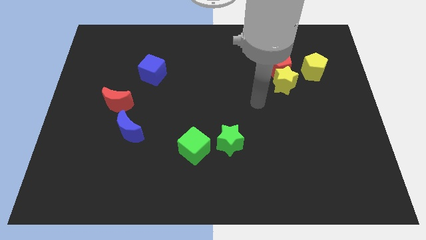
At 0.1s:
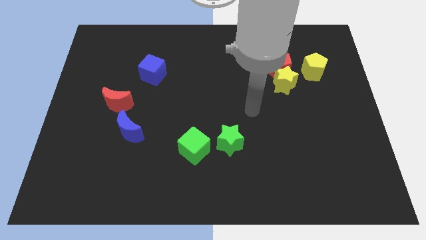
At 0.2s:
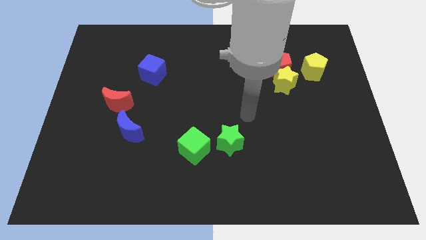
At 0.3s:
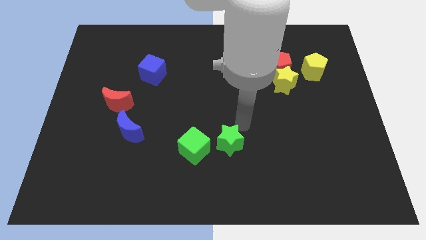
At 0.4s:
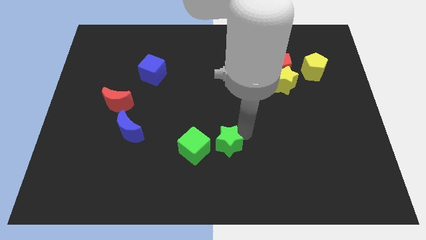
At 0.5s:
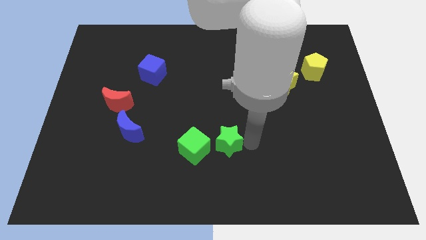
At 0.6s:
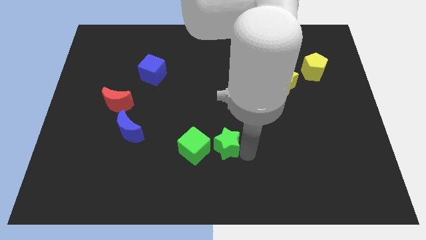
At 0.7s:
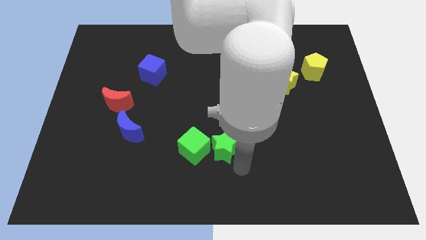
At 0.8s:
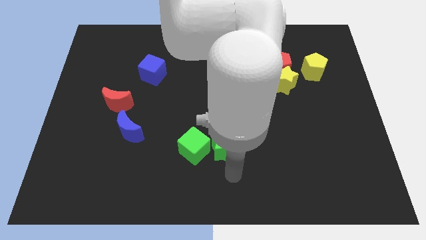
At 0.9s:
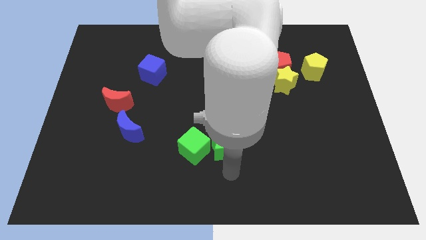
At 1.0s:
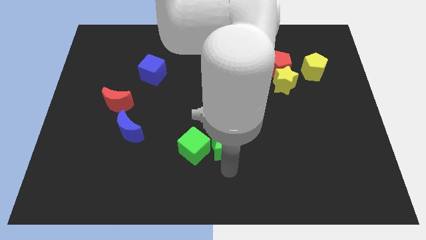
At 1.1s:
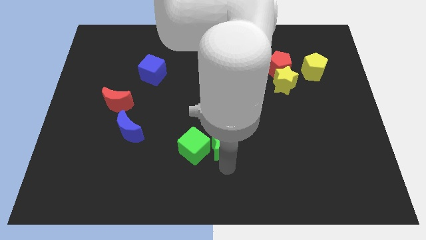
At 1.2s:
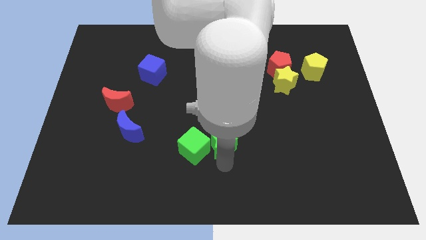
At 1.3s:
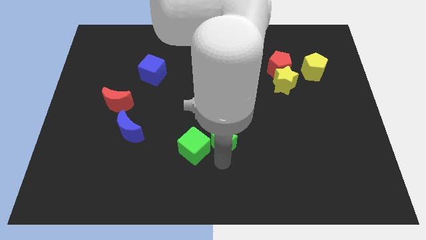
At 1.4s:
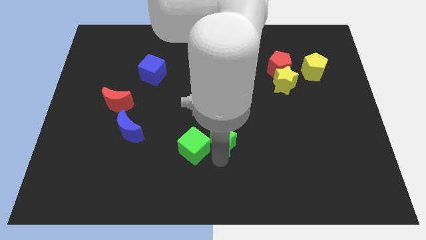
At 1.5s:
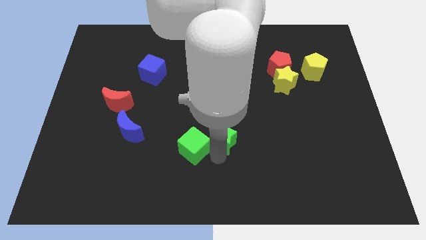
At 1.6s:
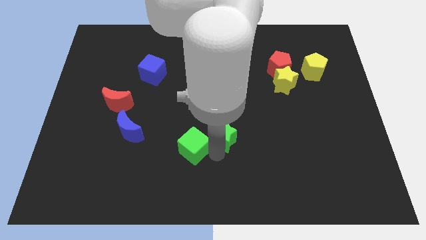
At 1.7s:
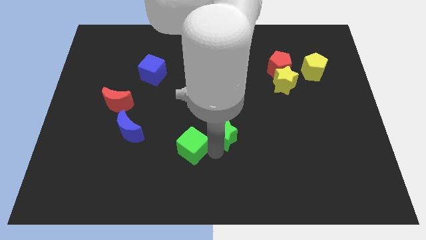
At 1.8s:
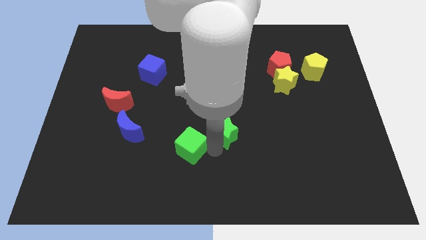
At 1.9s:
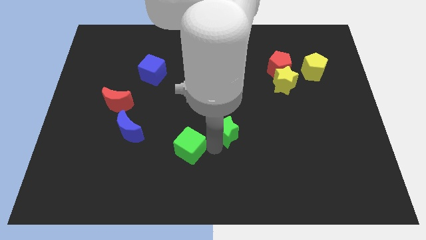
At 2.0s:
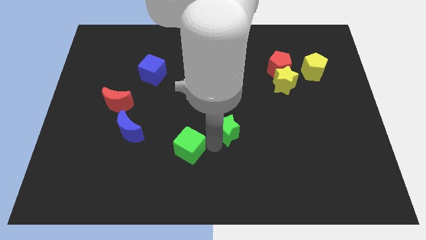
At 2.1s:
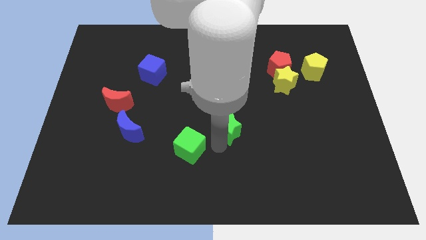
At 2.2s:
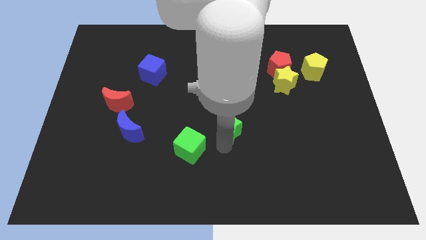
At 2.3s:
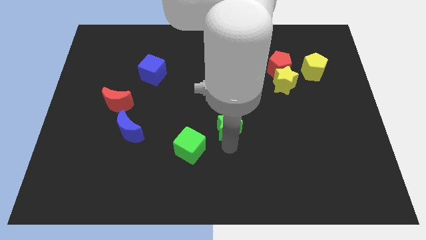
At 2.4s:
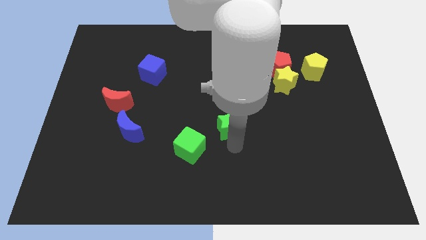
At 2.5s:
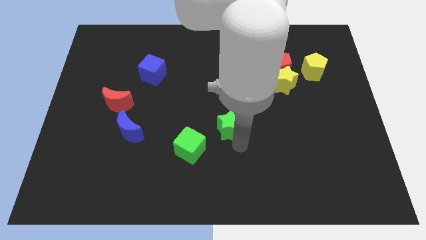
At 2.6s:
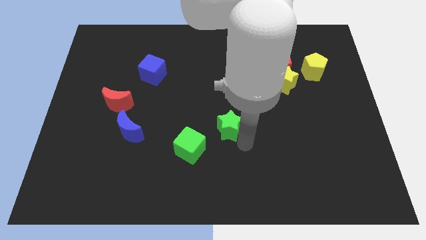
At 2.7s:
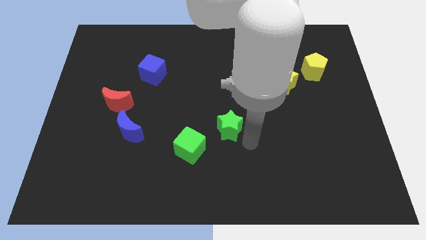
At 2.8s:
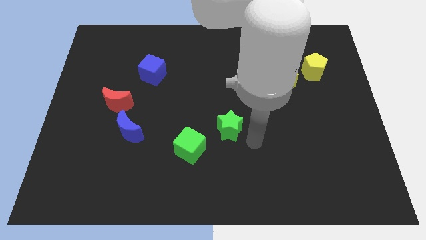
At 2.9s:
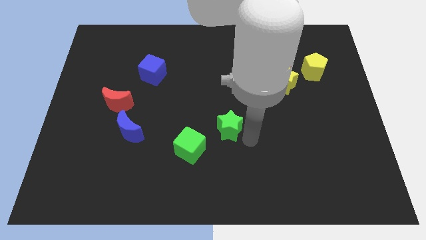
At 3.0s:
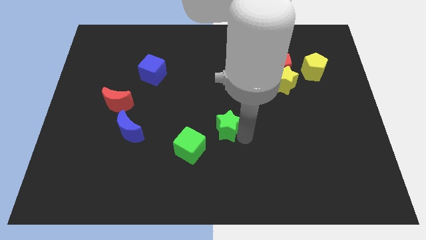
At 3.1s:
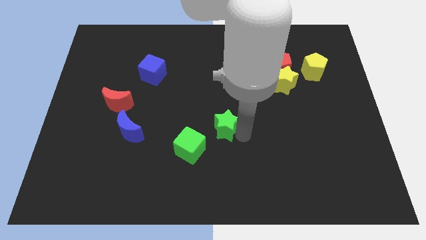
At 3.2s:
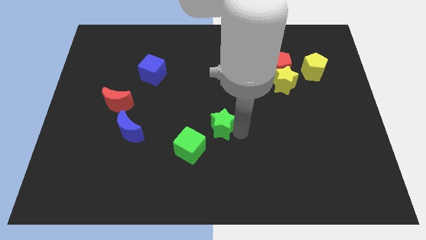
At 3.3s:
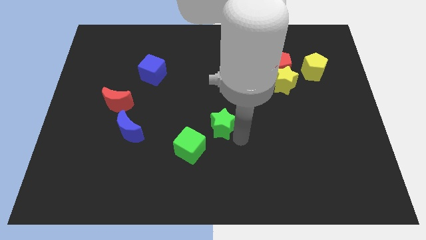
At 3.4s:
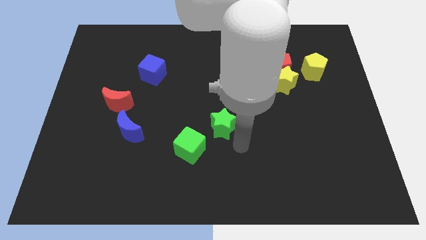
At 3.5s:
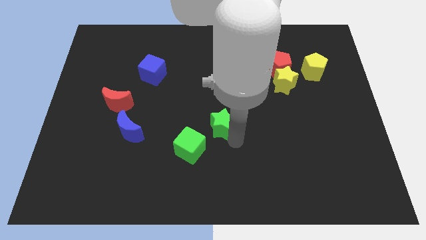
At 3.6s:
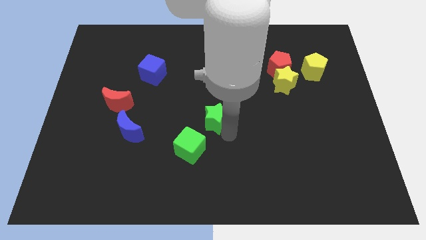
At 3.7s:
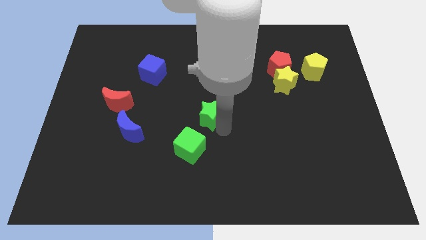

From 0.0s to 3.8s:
slide the green star upwards and then left a little bit

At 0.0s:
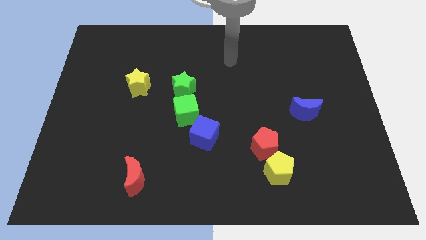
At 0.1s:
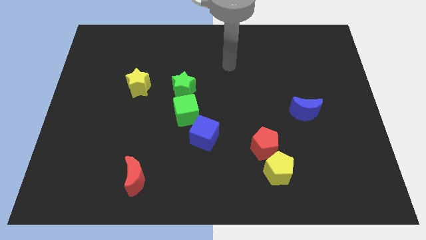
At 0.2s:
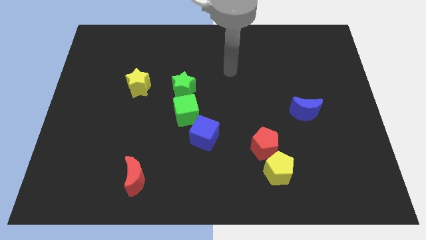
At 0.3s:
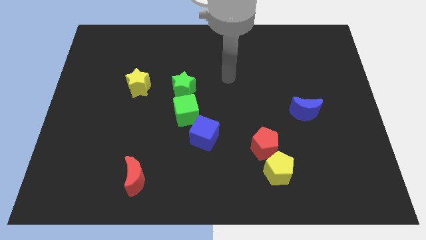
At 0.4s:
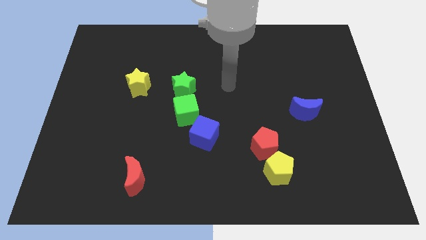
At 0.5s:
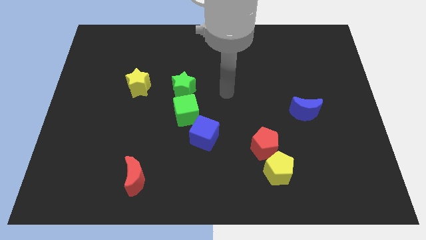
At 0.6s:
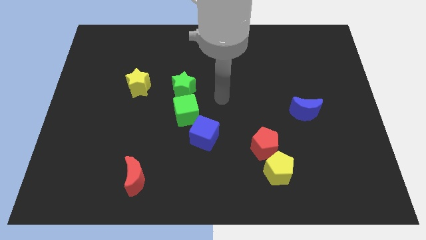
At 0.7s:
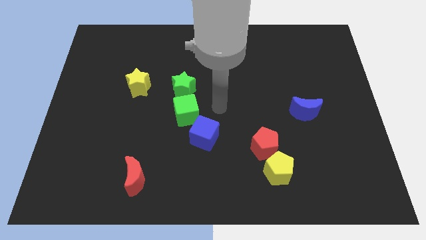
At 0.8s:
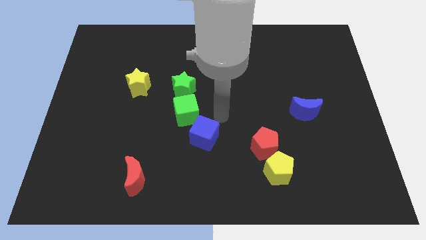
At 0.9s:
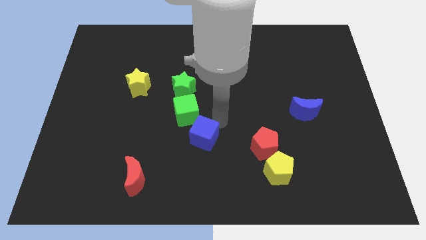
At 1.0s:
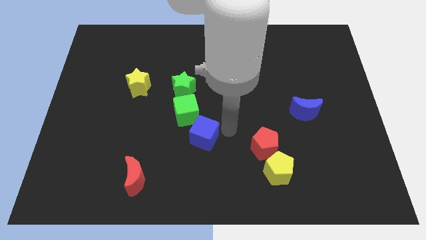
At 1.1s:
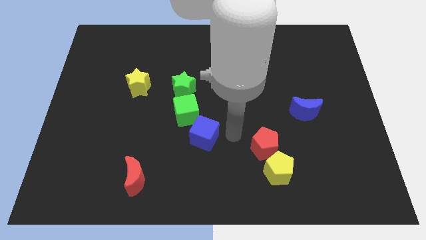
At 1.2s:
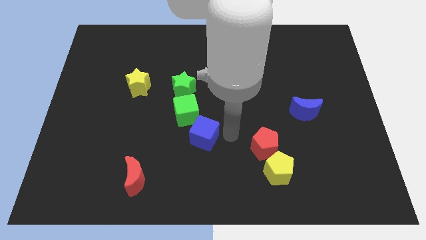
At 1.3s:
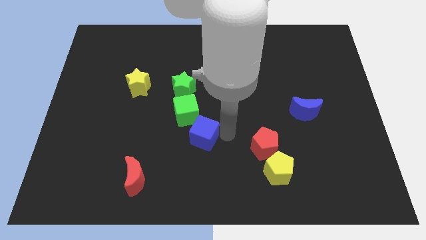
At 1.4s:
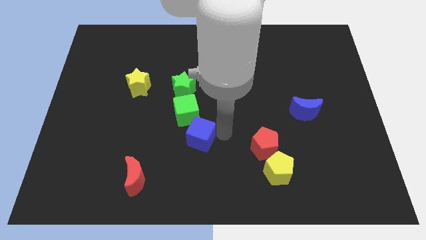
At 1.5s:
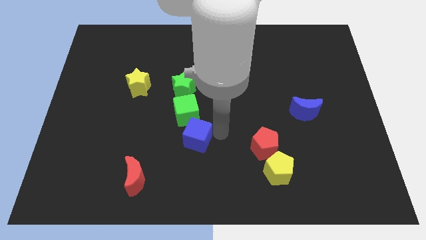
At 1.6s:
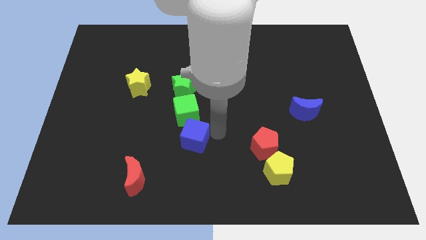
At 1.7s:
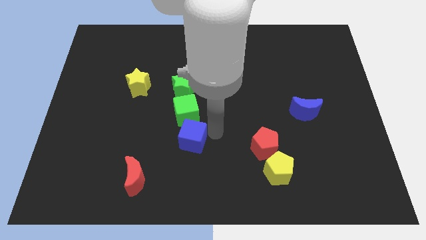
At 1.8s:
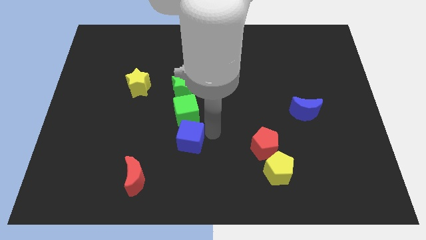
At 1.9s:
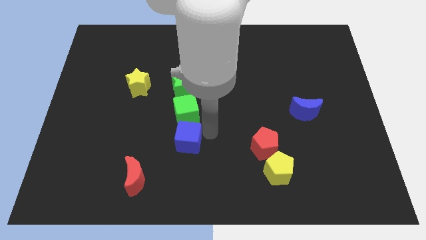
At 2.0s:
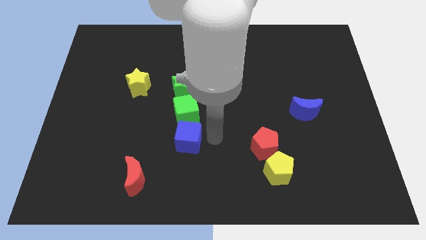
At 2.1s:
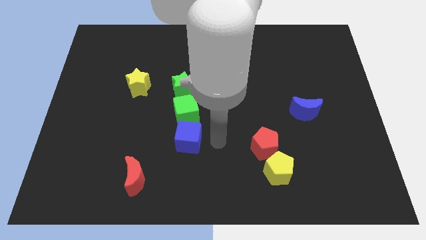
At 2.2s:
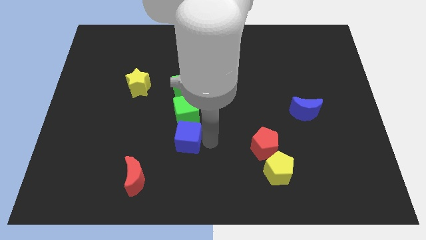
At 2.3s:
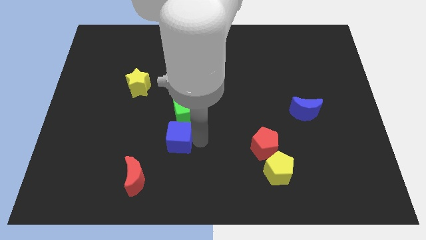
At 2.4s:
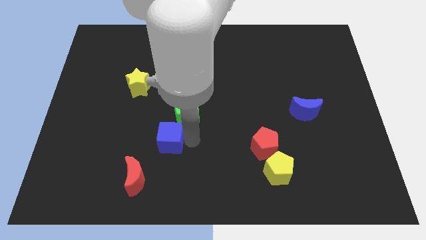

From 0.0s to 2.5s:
push the blue cube left slightly

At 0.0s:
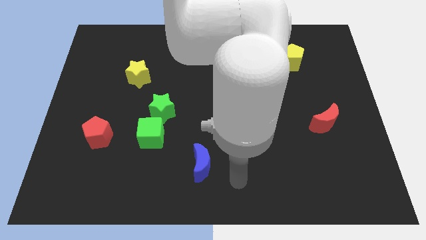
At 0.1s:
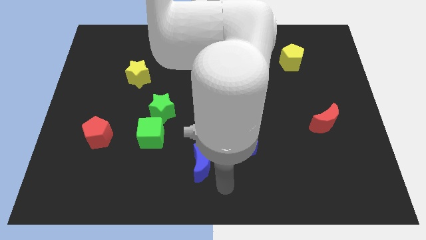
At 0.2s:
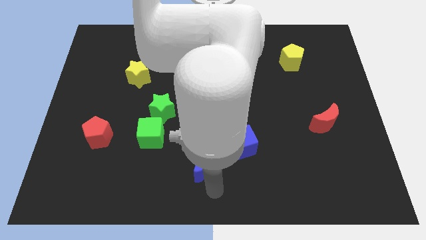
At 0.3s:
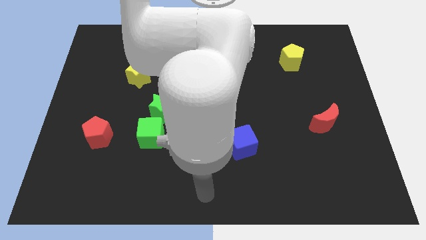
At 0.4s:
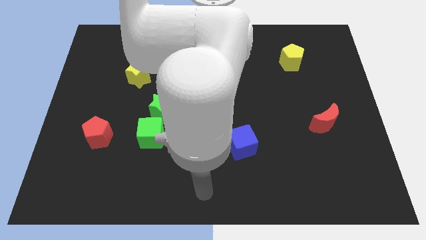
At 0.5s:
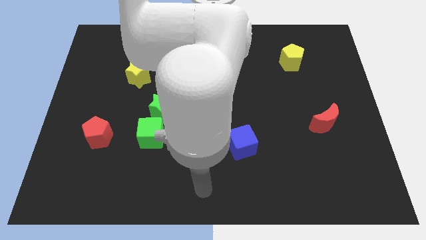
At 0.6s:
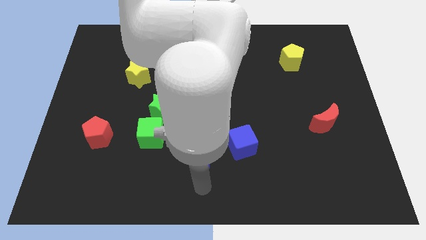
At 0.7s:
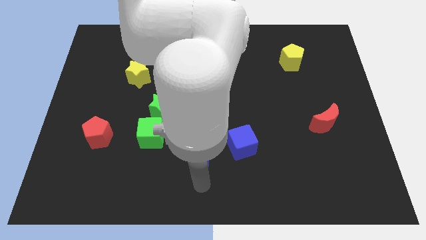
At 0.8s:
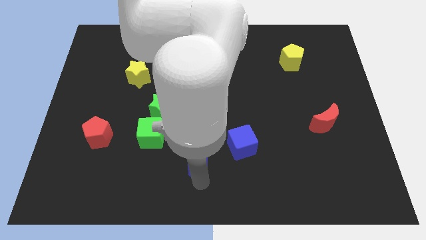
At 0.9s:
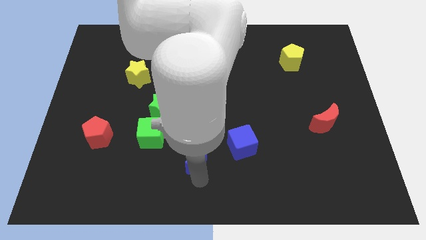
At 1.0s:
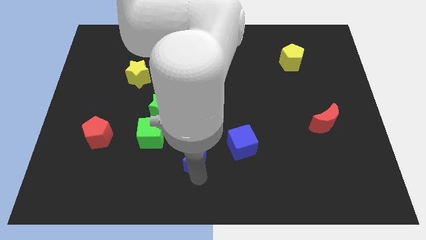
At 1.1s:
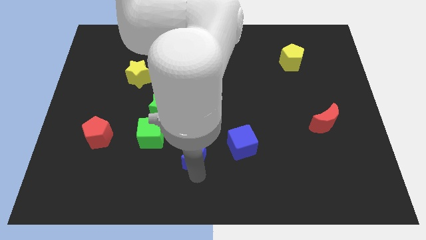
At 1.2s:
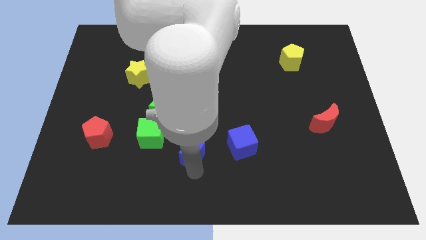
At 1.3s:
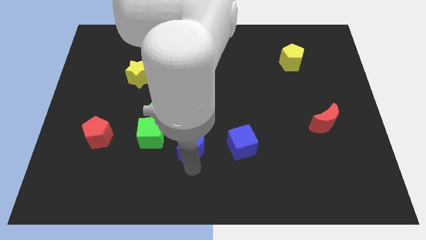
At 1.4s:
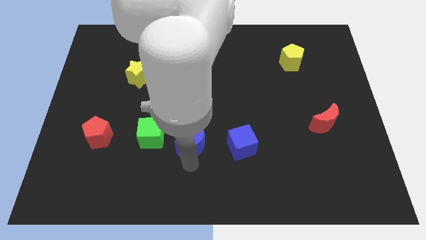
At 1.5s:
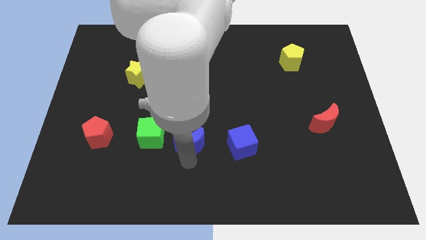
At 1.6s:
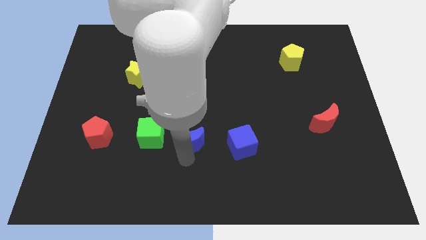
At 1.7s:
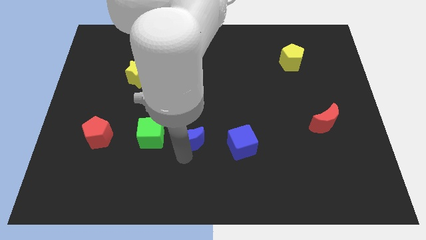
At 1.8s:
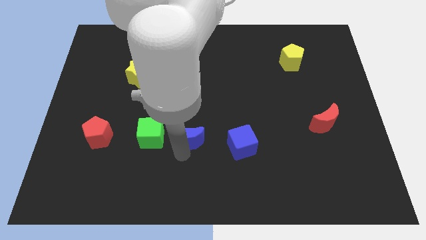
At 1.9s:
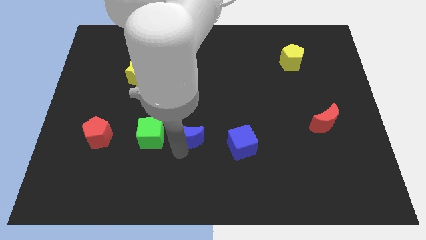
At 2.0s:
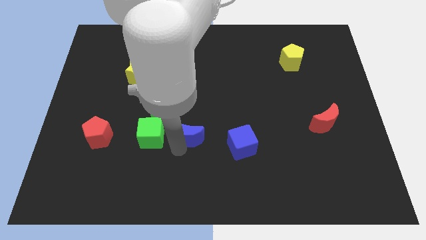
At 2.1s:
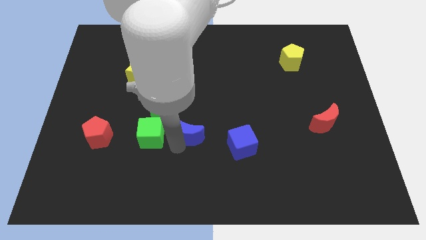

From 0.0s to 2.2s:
slide the blue moon up slightly
